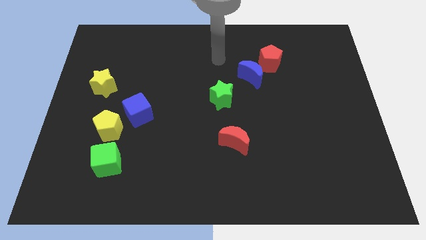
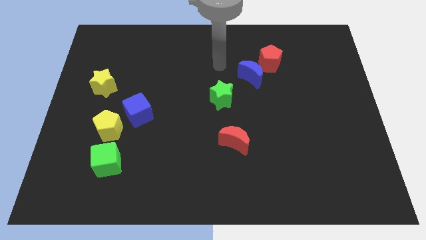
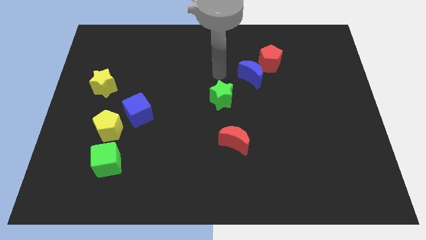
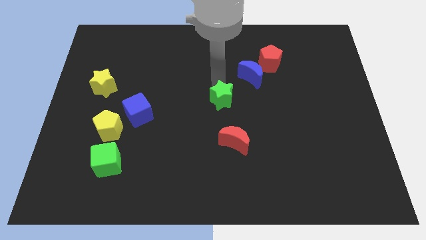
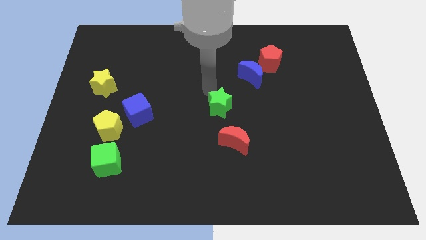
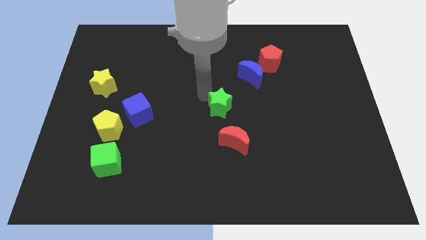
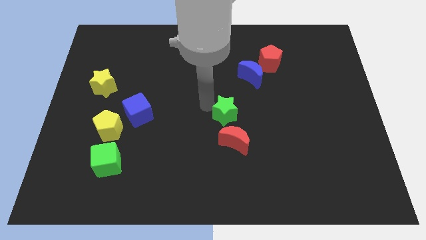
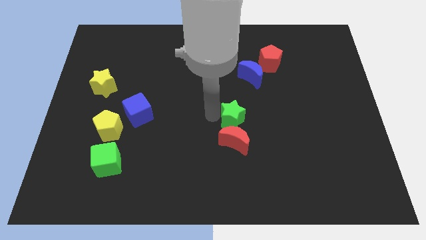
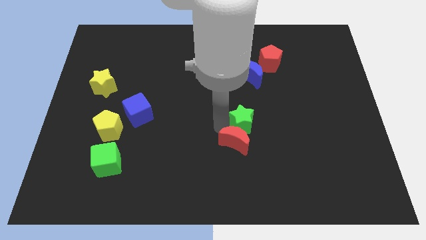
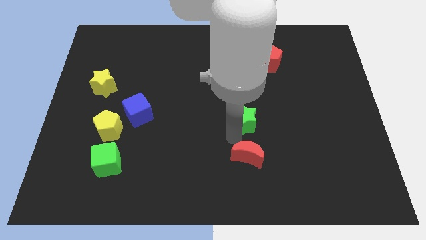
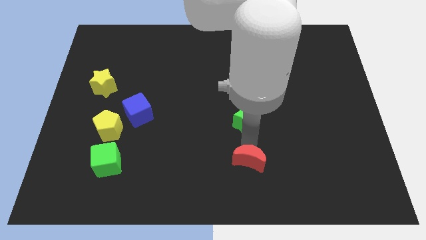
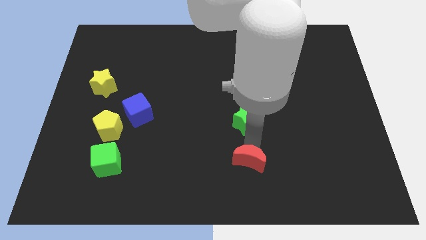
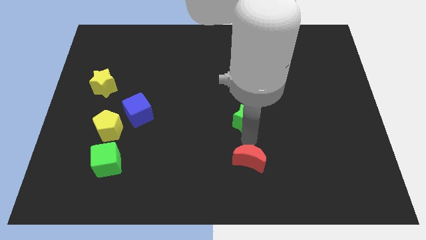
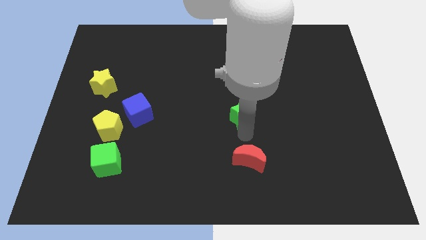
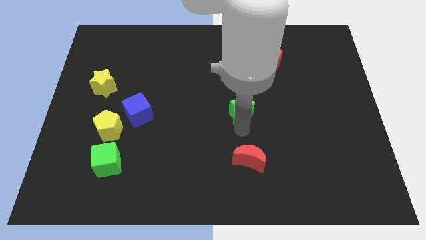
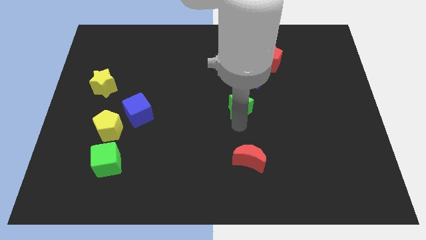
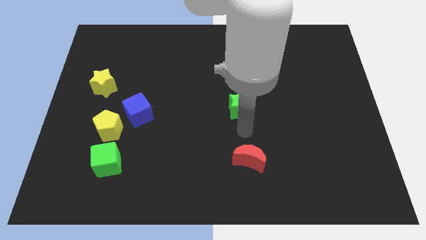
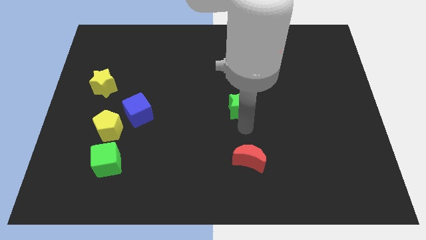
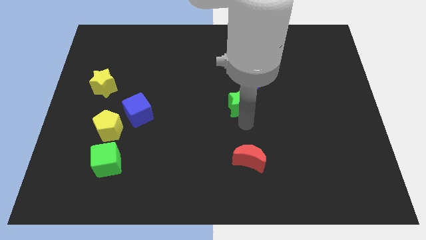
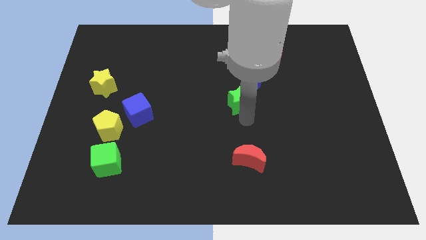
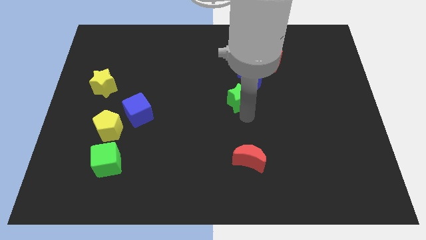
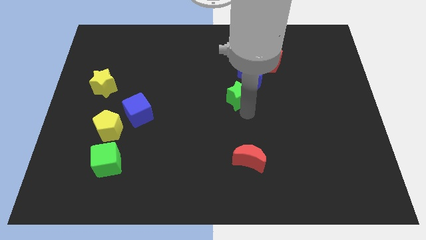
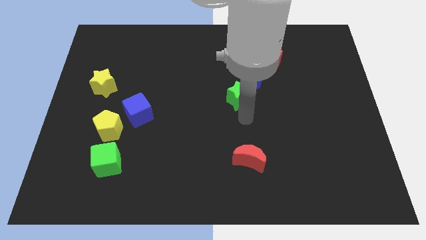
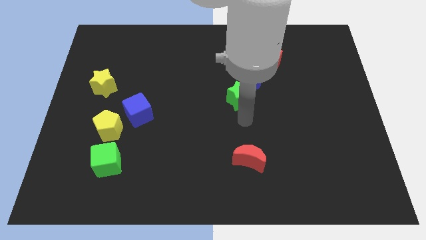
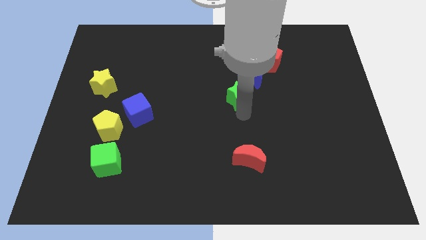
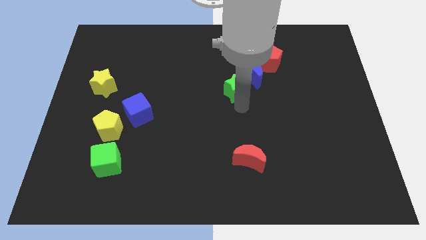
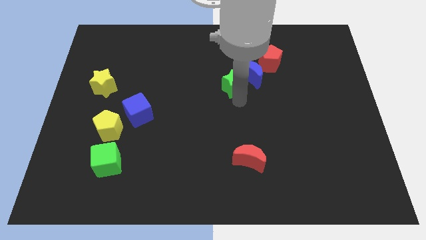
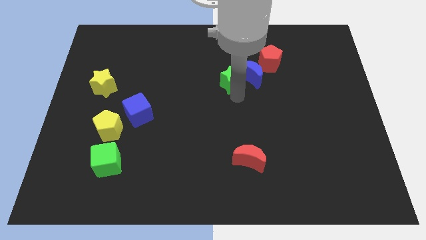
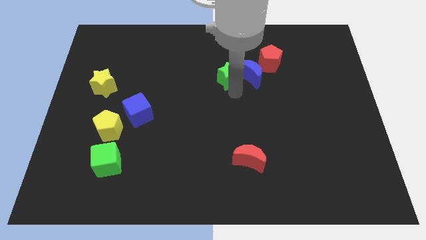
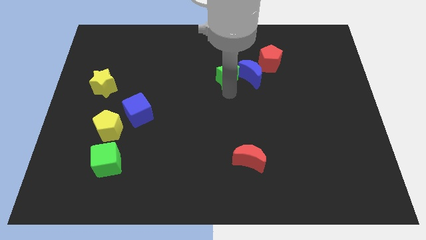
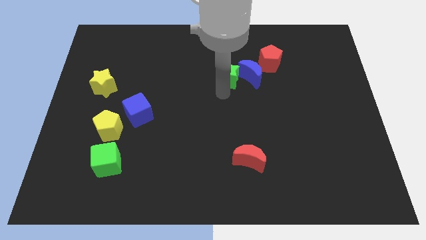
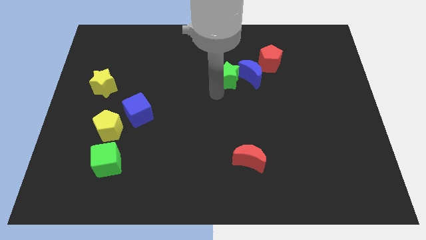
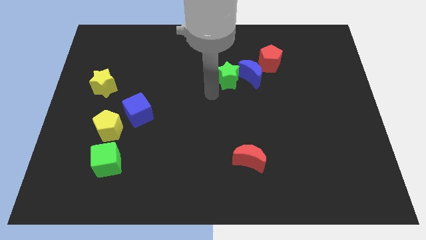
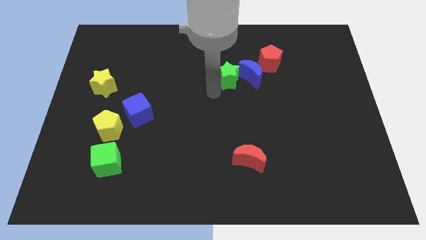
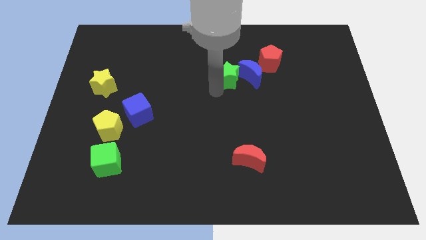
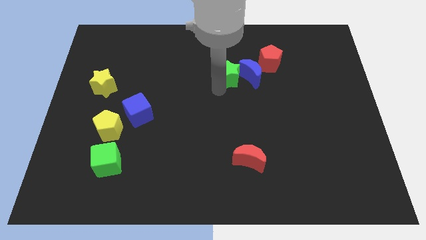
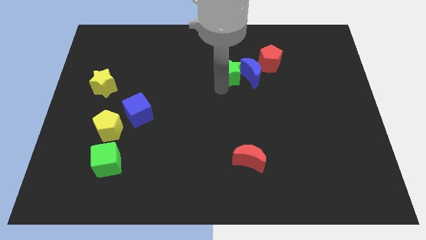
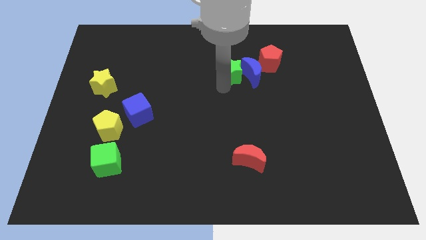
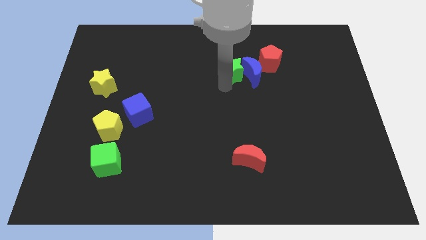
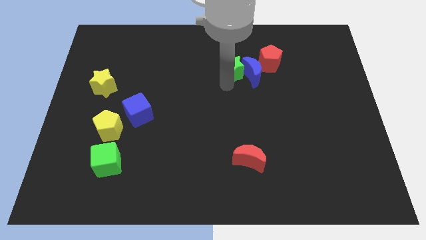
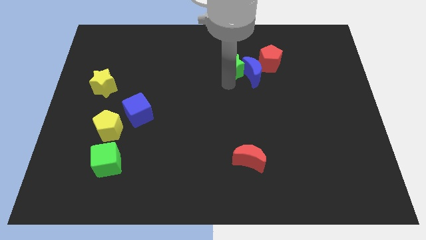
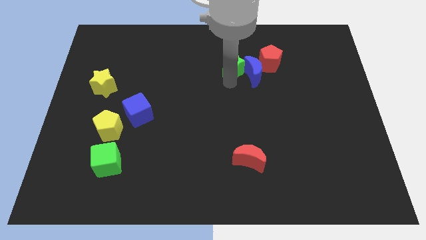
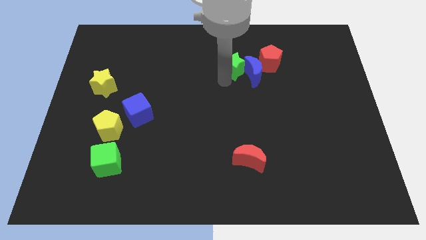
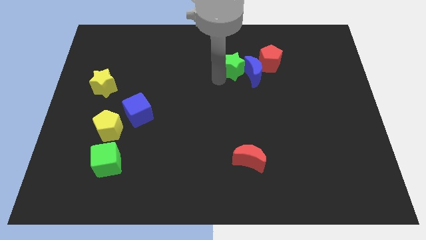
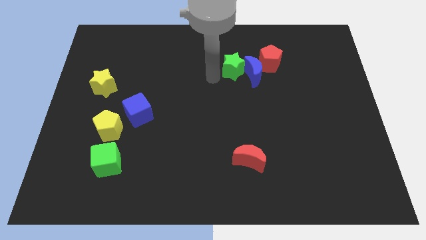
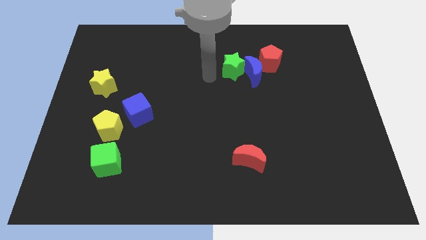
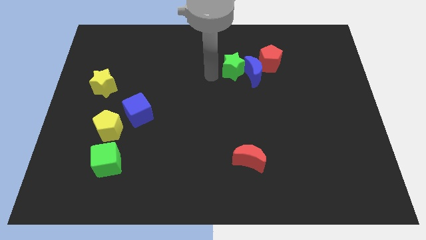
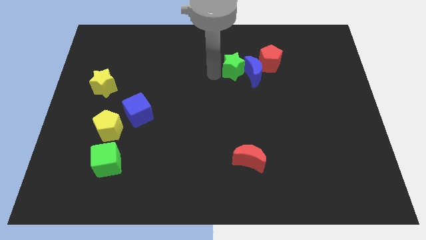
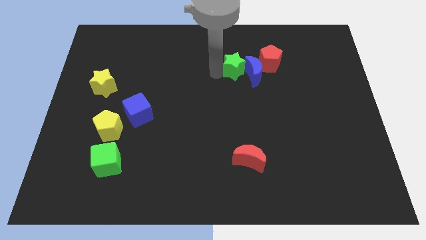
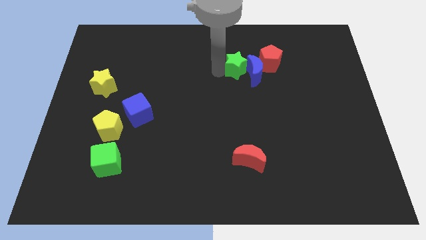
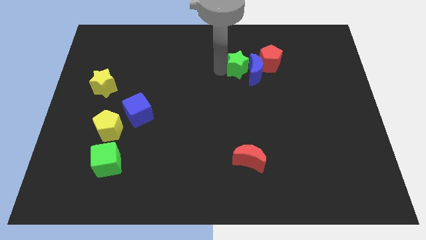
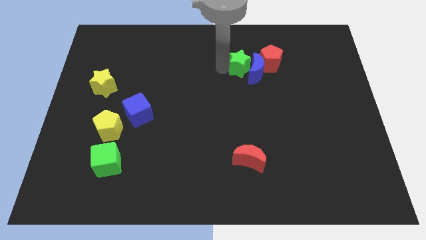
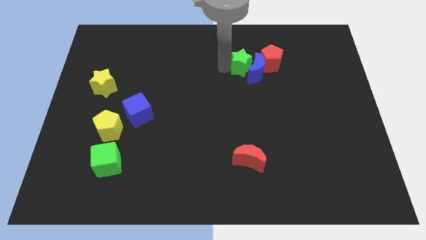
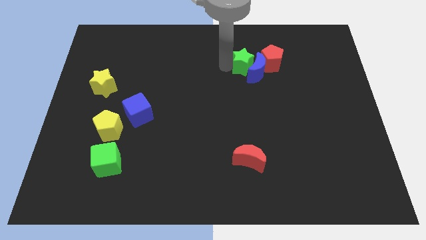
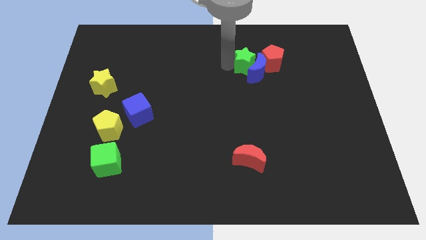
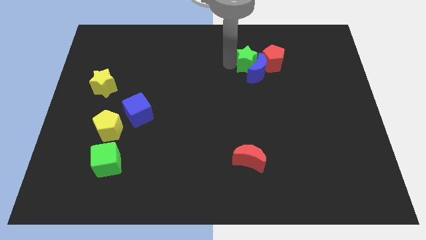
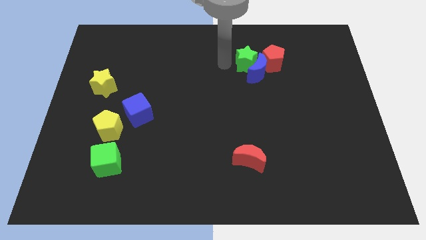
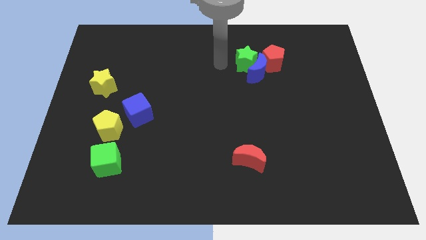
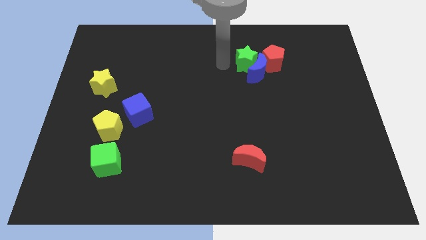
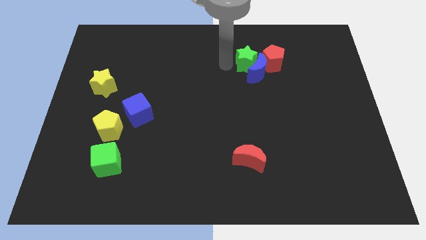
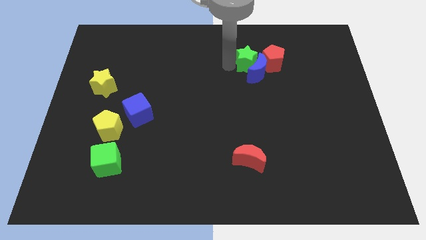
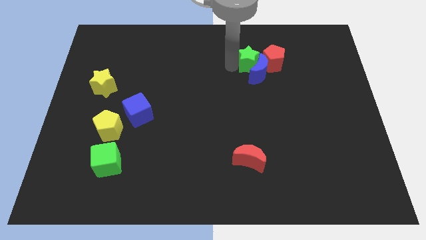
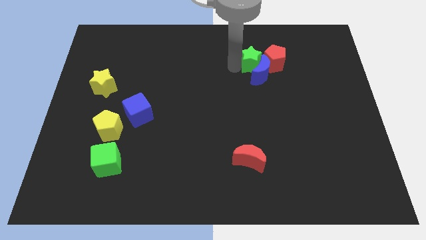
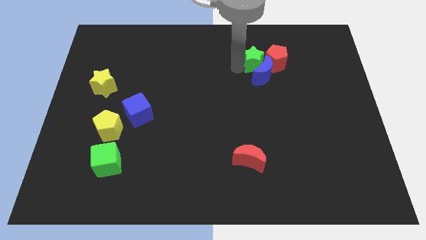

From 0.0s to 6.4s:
put the green star next to the red pentagon

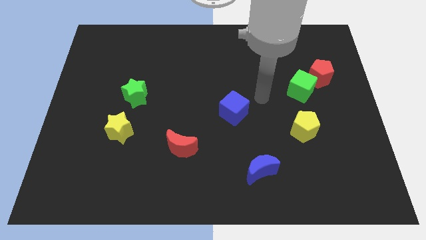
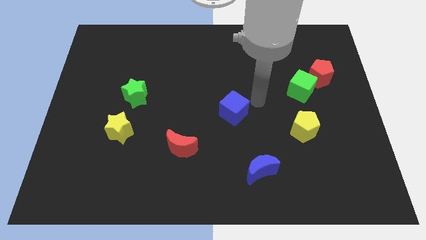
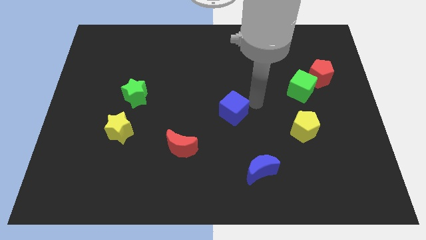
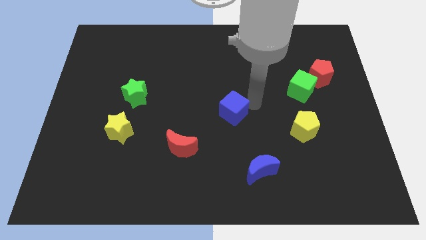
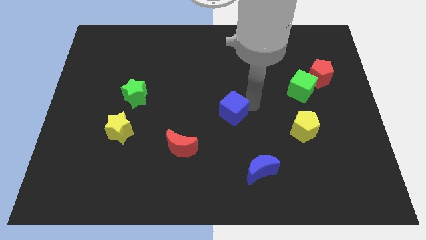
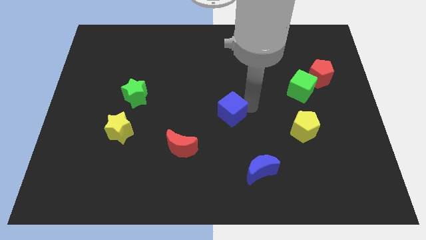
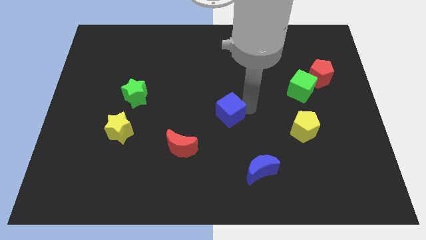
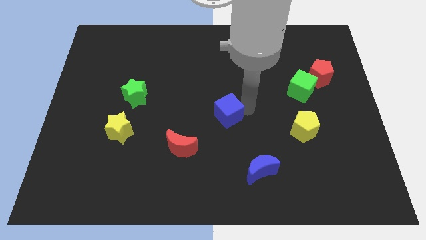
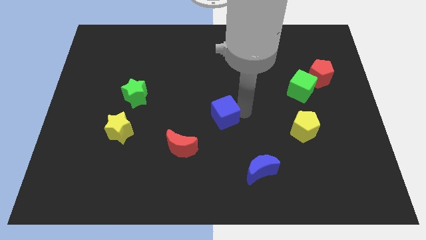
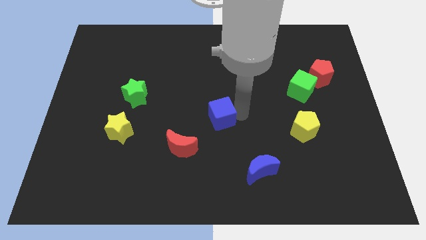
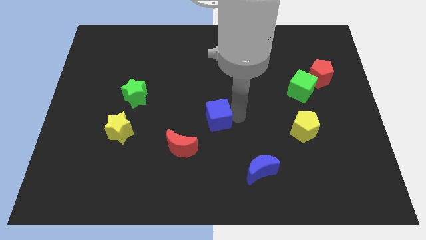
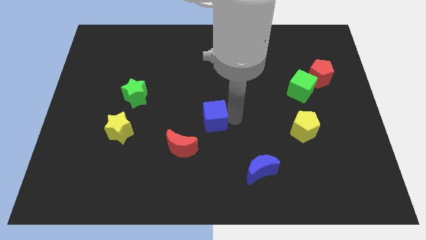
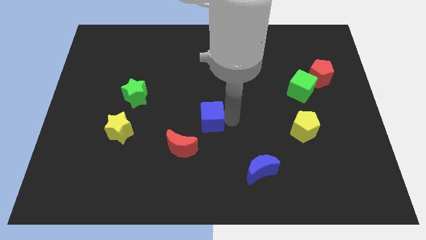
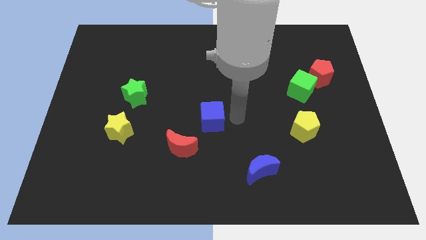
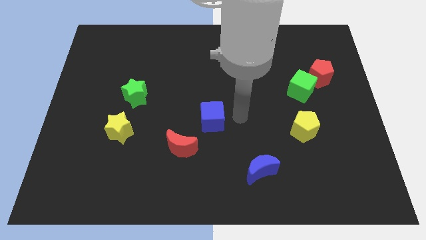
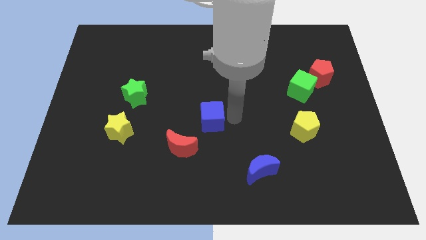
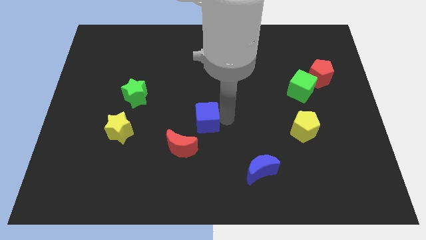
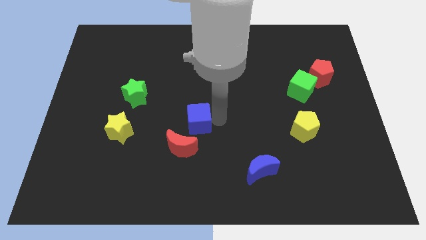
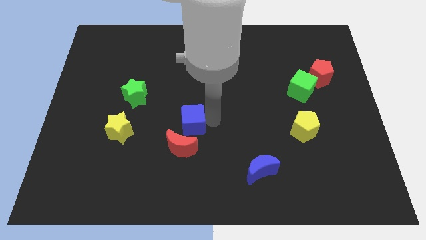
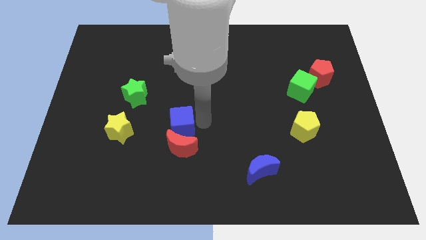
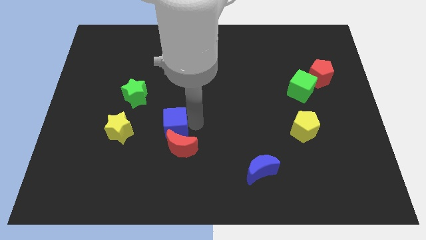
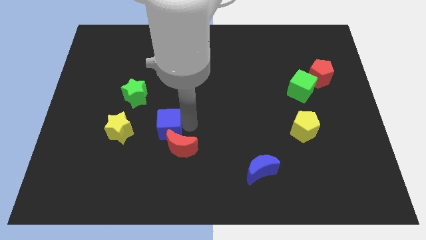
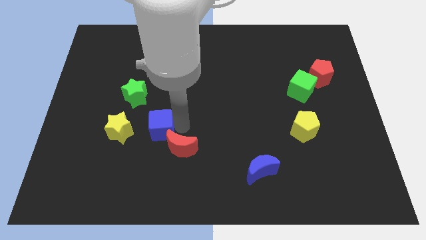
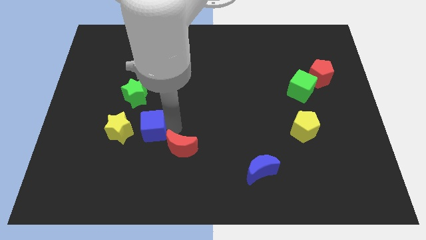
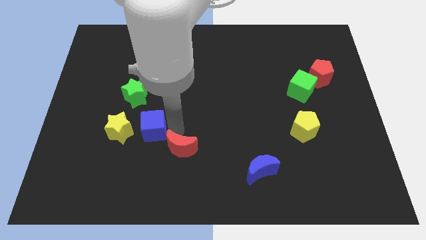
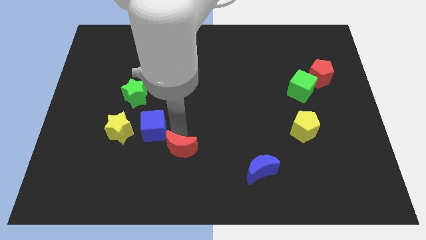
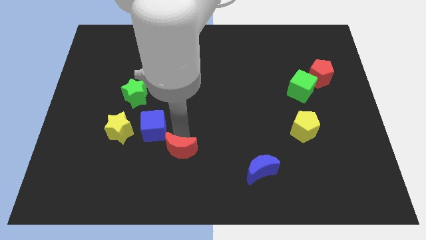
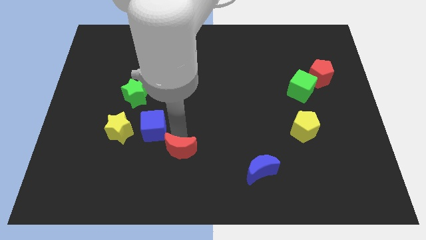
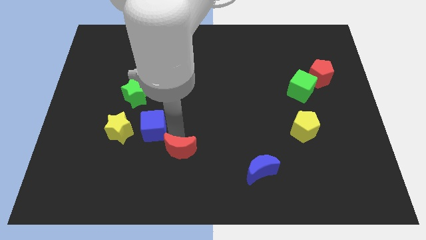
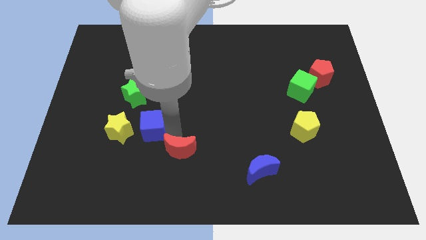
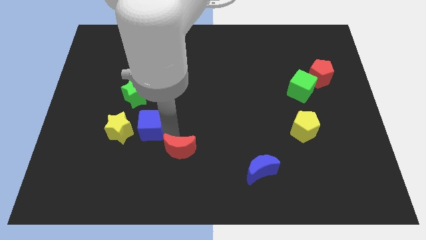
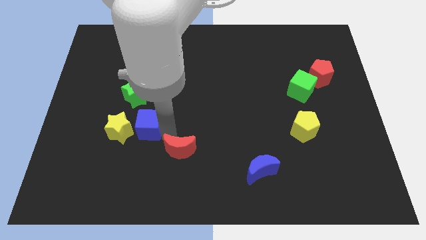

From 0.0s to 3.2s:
move the blue cube to the yellow star
